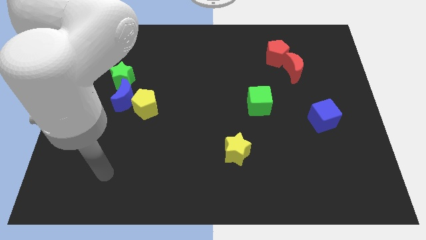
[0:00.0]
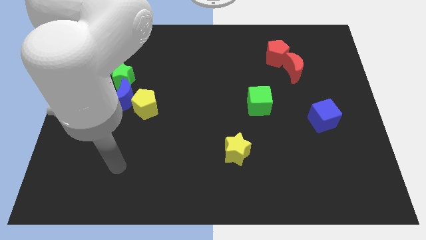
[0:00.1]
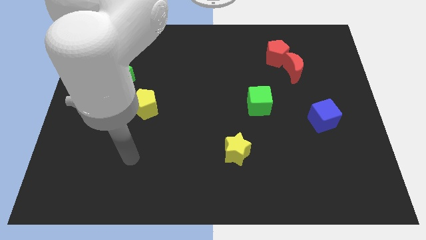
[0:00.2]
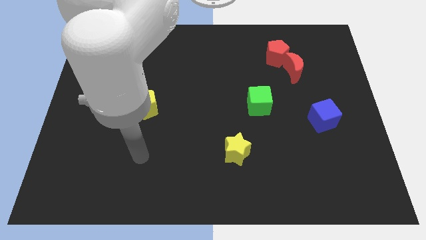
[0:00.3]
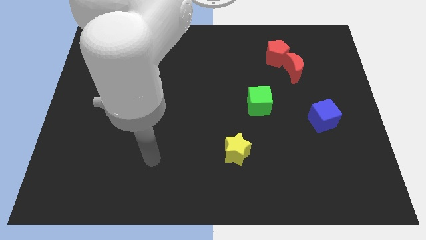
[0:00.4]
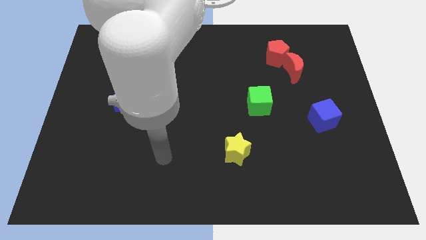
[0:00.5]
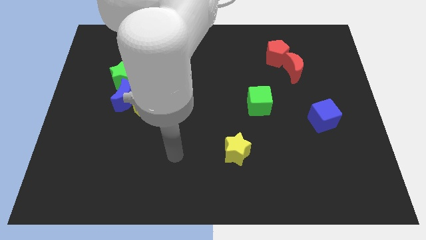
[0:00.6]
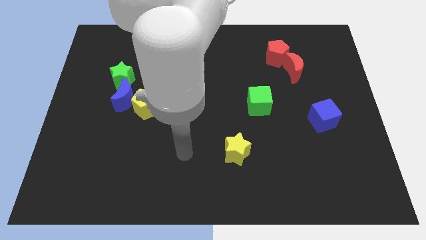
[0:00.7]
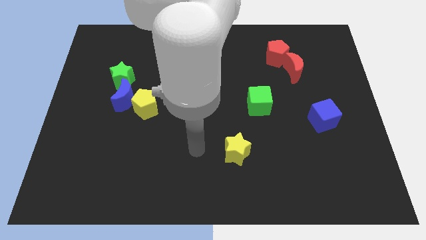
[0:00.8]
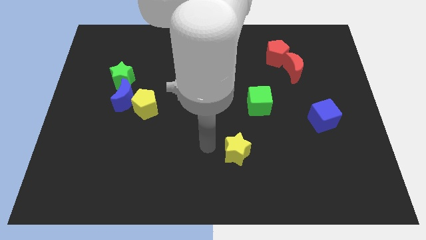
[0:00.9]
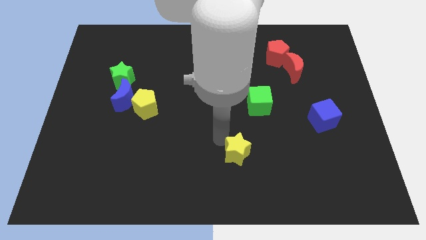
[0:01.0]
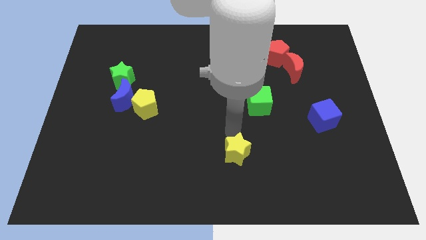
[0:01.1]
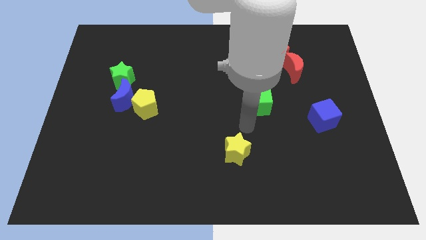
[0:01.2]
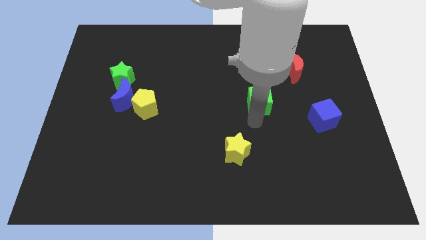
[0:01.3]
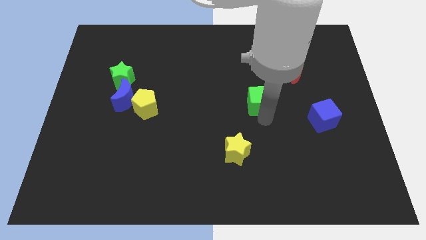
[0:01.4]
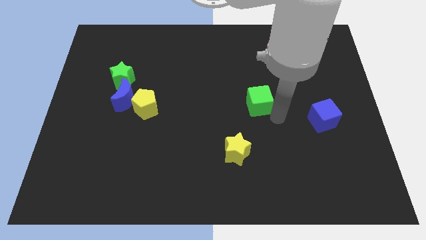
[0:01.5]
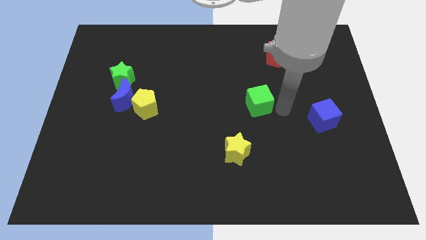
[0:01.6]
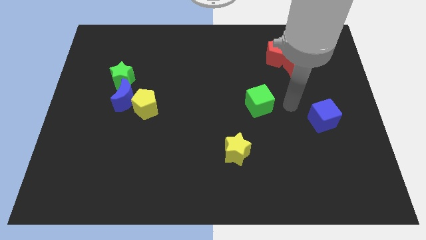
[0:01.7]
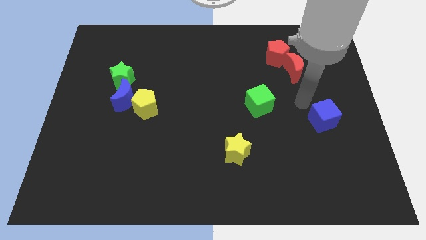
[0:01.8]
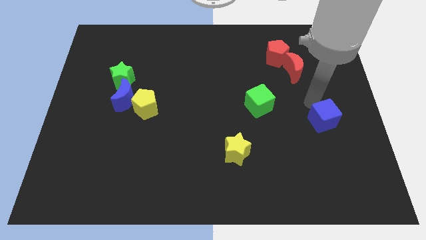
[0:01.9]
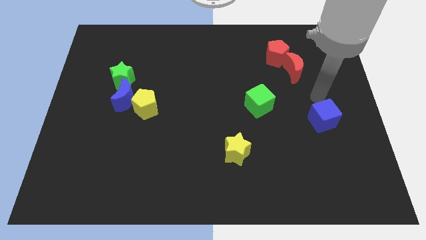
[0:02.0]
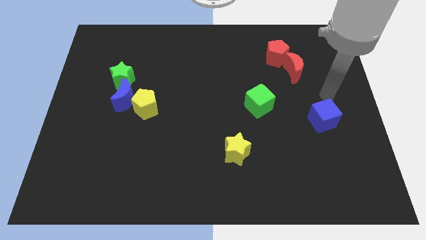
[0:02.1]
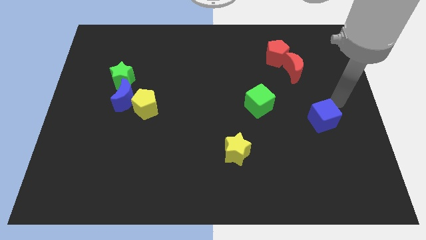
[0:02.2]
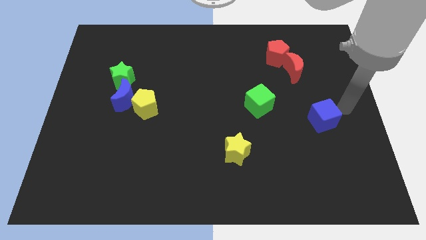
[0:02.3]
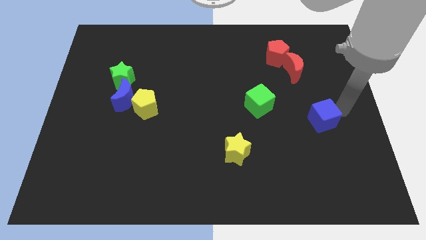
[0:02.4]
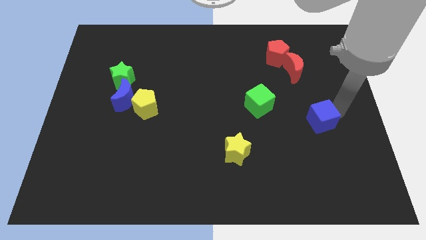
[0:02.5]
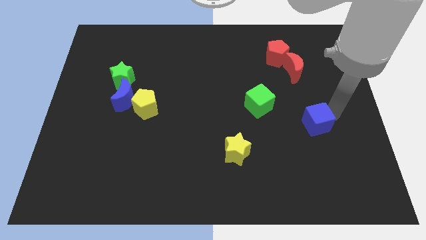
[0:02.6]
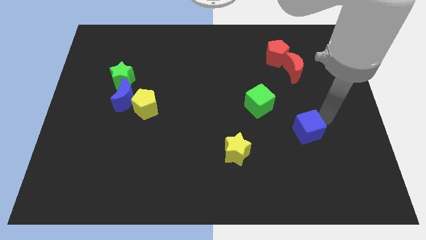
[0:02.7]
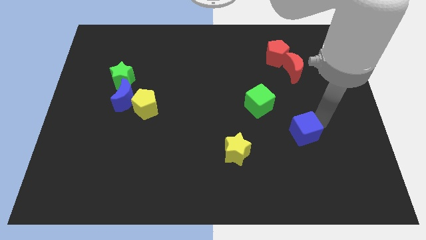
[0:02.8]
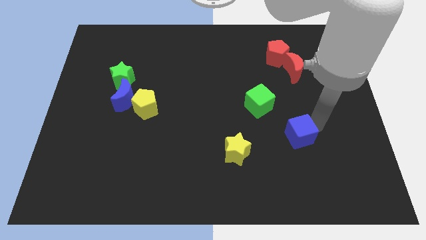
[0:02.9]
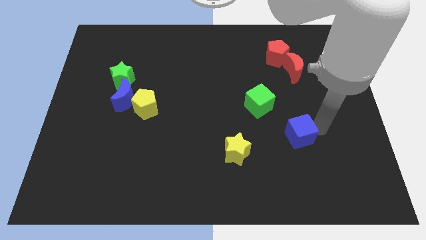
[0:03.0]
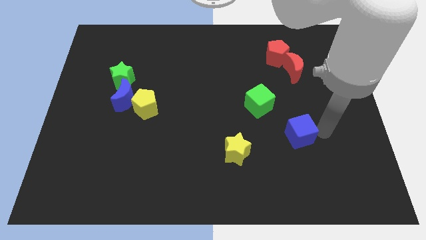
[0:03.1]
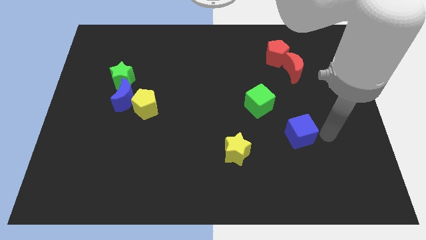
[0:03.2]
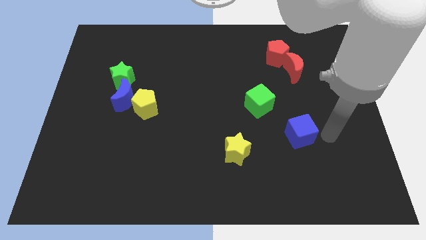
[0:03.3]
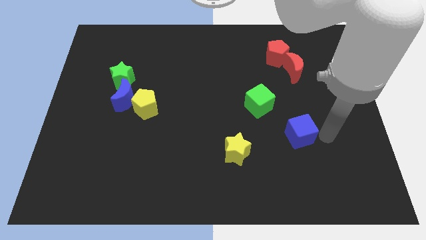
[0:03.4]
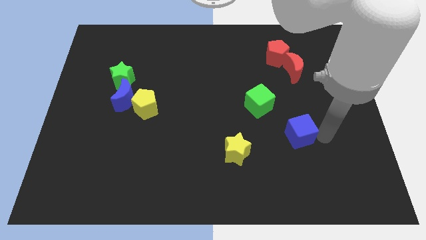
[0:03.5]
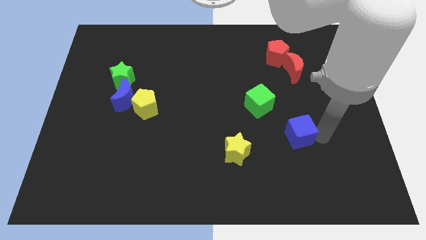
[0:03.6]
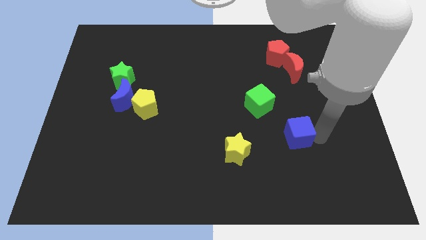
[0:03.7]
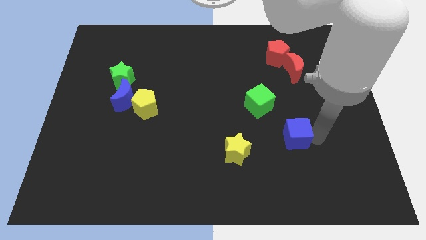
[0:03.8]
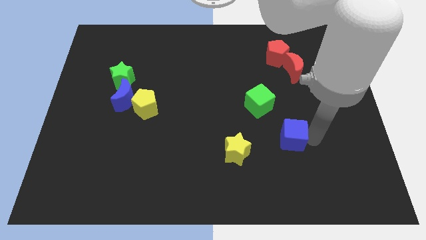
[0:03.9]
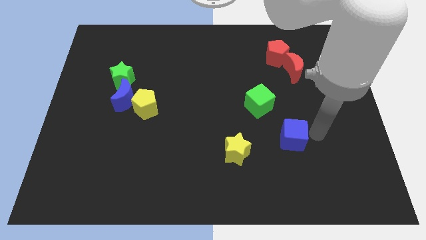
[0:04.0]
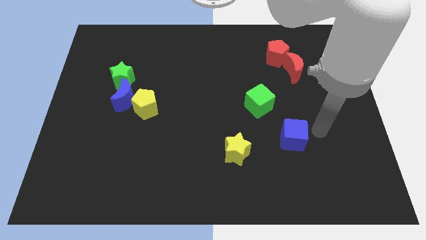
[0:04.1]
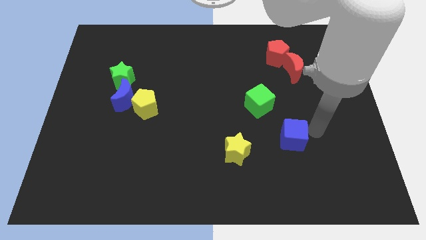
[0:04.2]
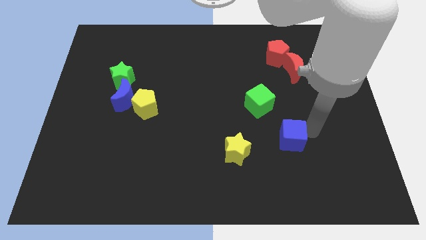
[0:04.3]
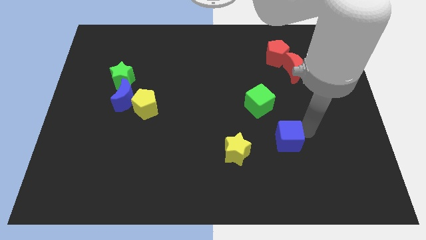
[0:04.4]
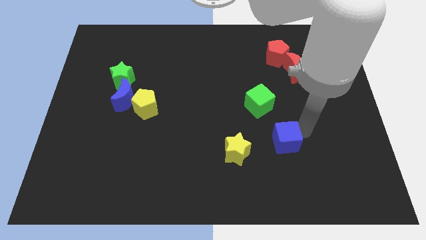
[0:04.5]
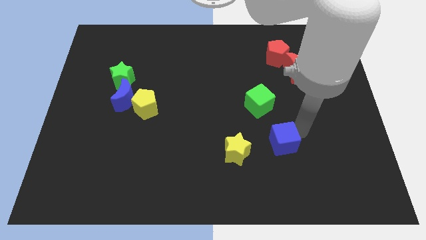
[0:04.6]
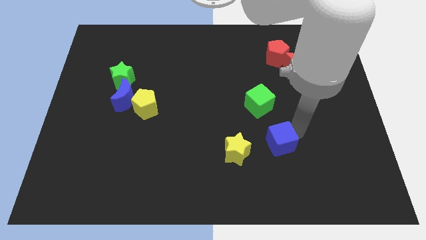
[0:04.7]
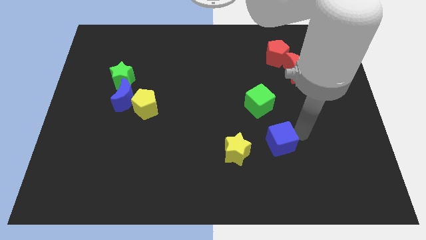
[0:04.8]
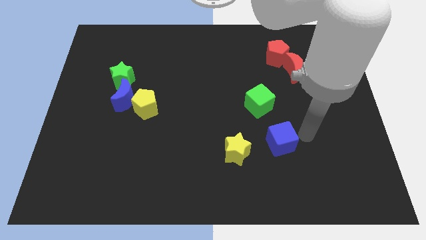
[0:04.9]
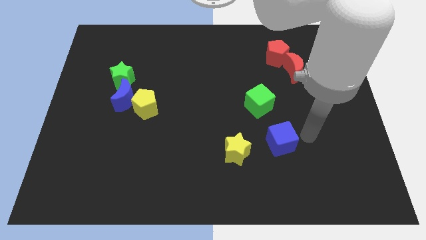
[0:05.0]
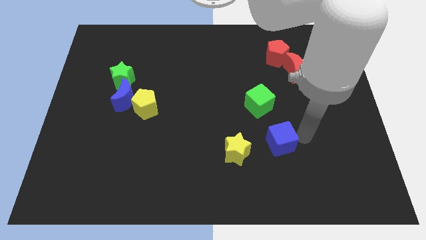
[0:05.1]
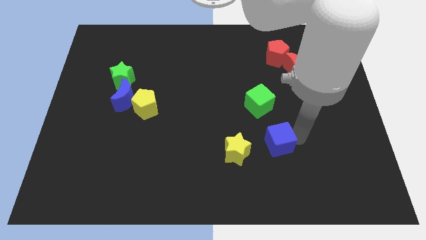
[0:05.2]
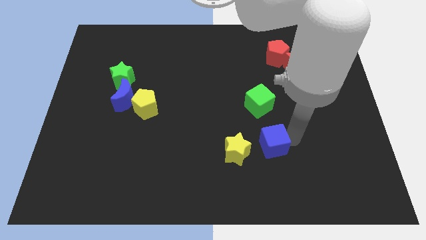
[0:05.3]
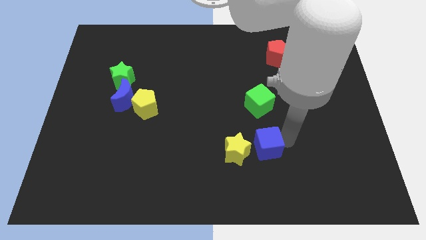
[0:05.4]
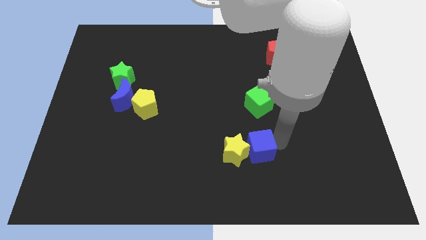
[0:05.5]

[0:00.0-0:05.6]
slide the blue cube to the yellow star

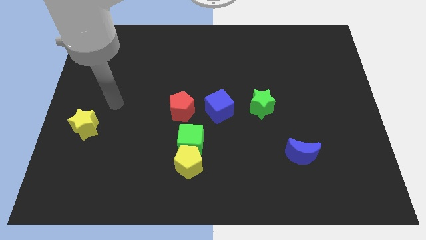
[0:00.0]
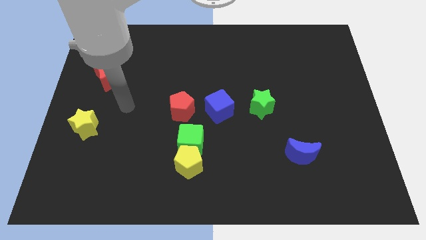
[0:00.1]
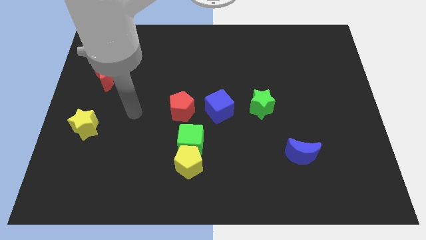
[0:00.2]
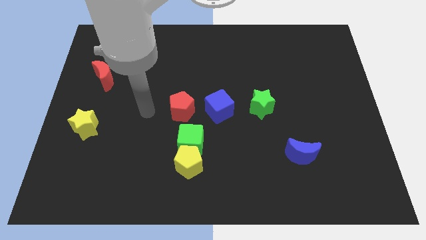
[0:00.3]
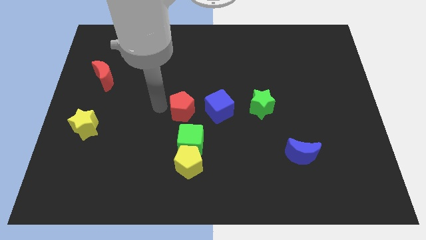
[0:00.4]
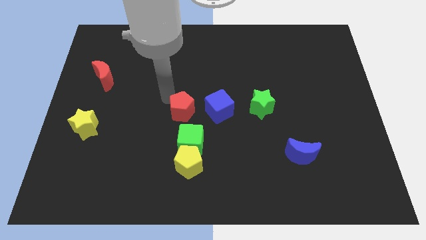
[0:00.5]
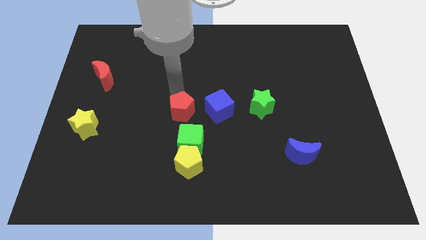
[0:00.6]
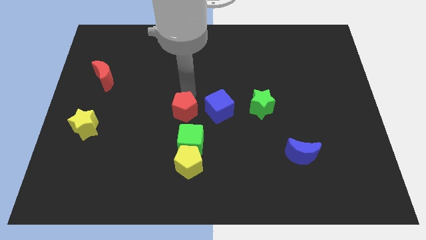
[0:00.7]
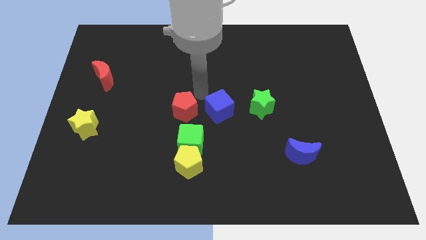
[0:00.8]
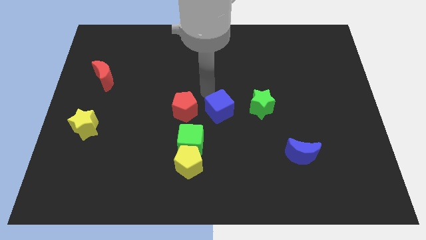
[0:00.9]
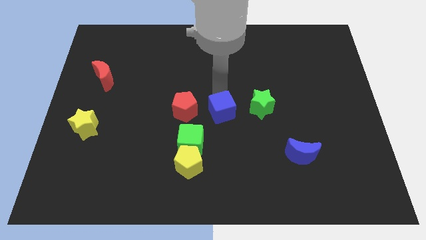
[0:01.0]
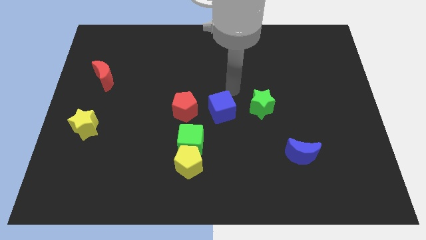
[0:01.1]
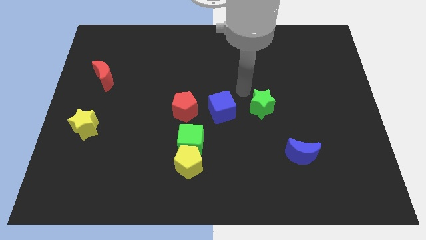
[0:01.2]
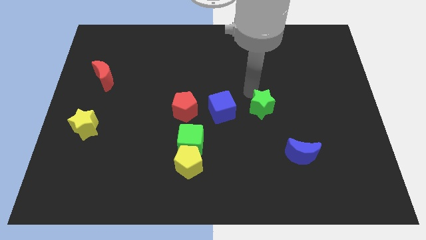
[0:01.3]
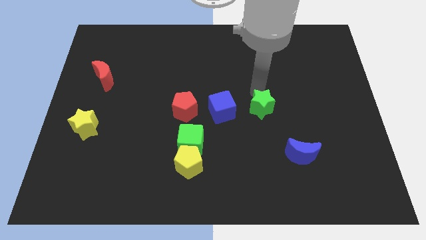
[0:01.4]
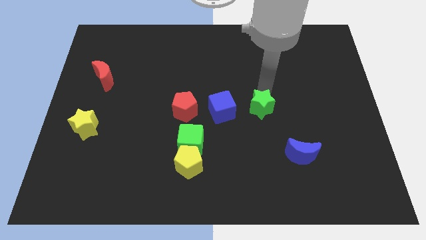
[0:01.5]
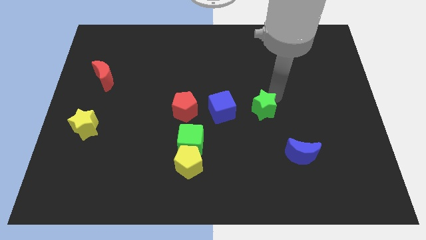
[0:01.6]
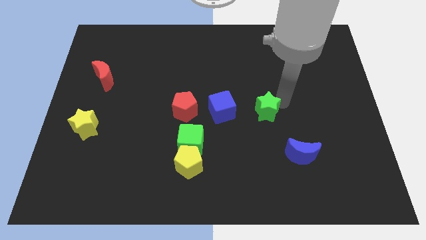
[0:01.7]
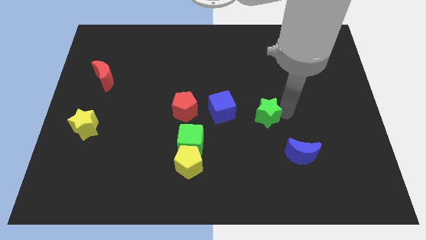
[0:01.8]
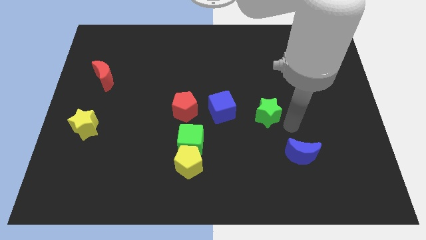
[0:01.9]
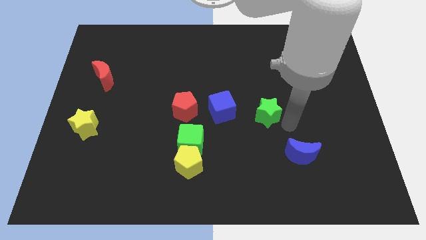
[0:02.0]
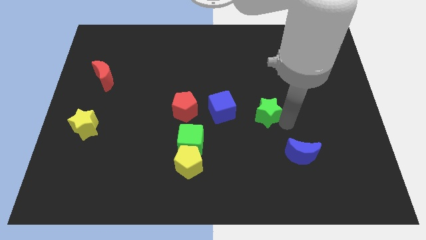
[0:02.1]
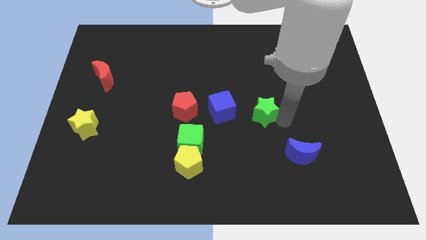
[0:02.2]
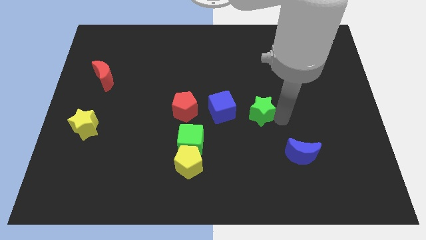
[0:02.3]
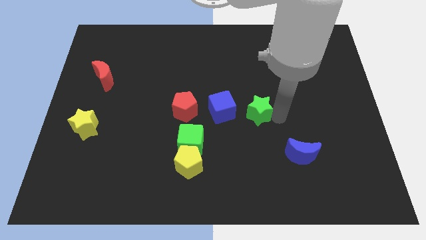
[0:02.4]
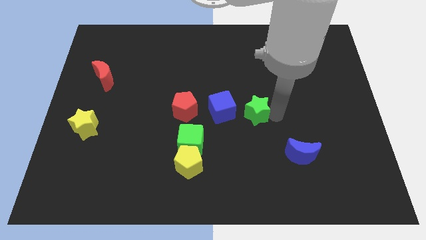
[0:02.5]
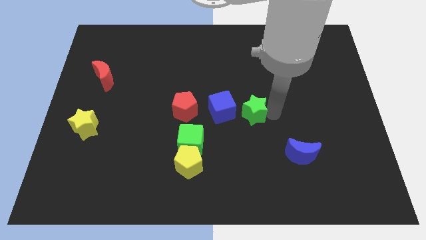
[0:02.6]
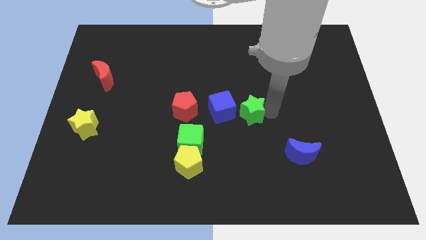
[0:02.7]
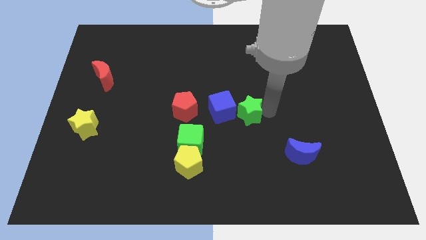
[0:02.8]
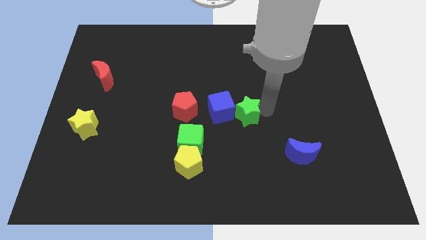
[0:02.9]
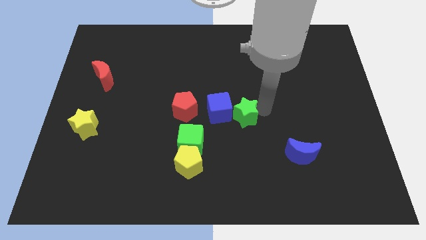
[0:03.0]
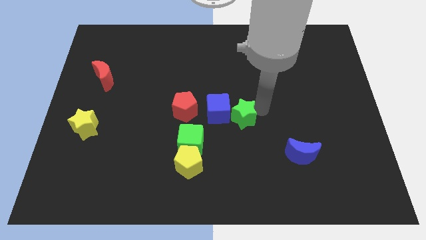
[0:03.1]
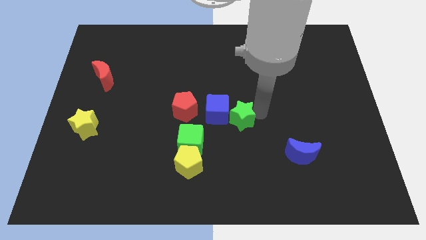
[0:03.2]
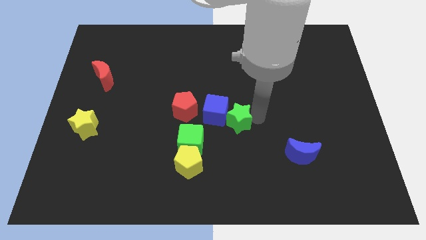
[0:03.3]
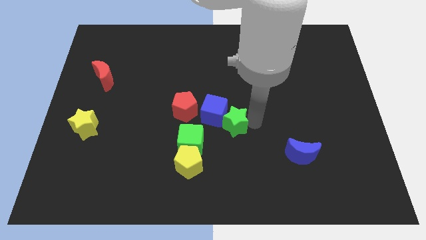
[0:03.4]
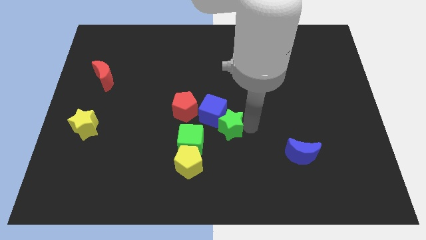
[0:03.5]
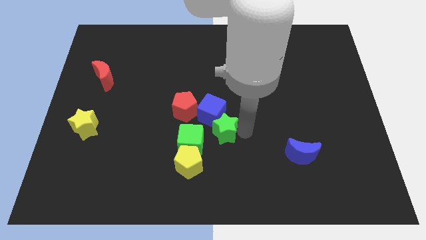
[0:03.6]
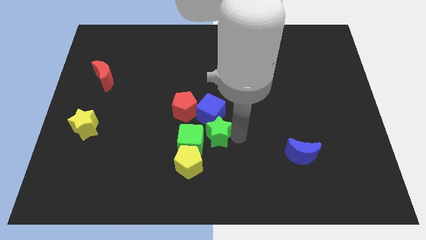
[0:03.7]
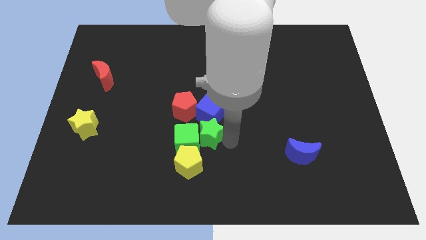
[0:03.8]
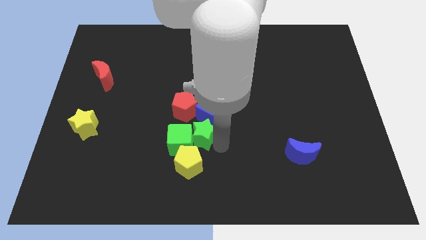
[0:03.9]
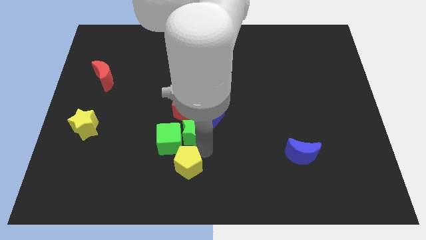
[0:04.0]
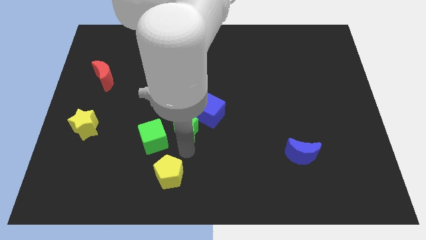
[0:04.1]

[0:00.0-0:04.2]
slide the green star next to the red pentagon
